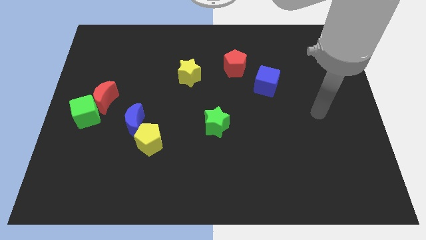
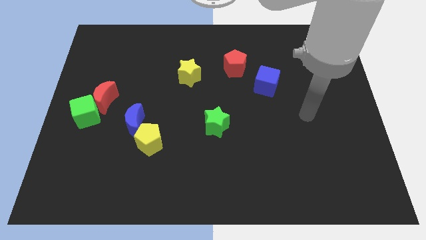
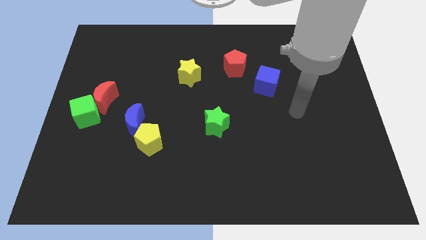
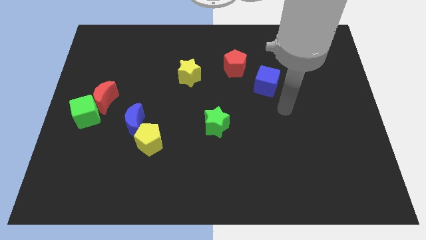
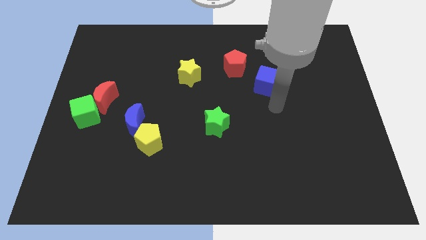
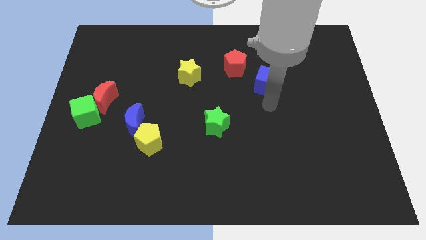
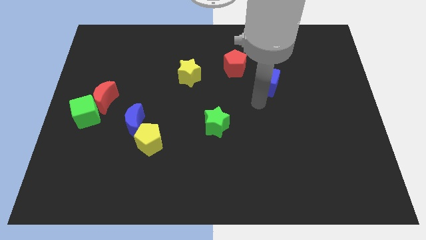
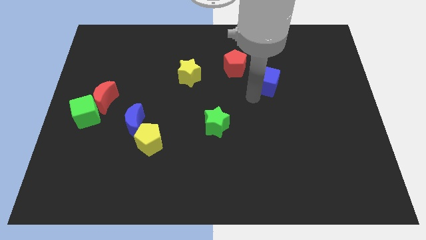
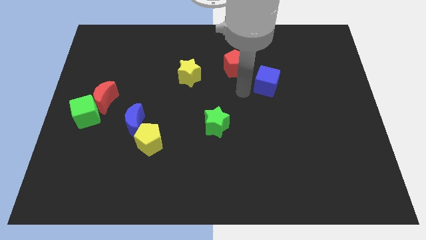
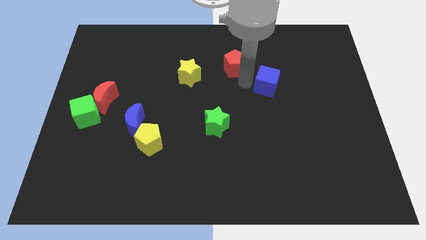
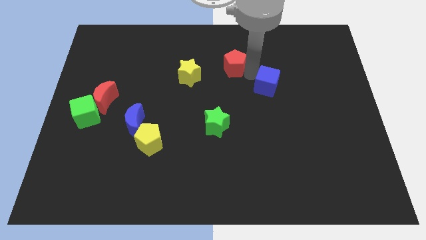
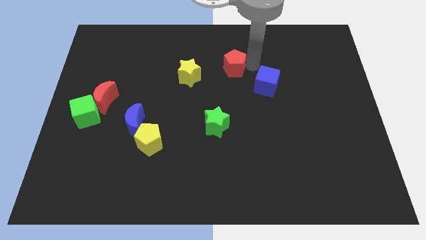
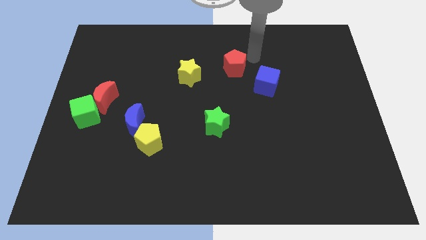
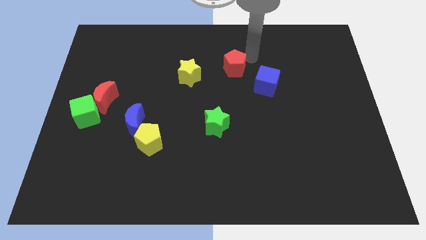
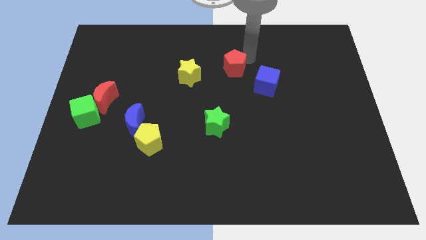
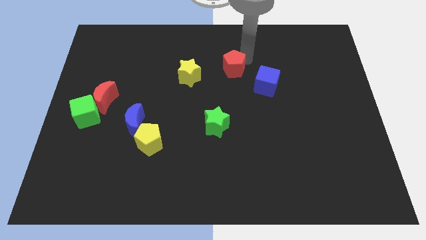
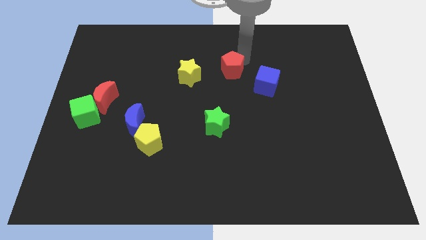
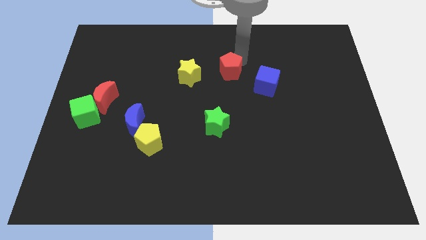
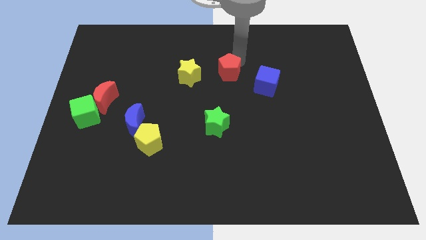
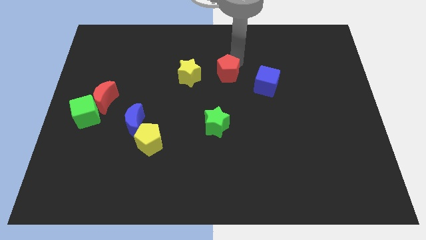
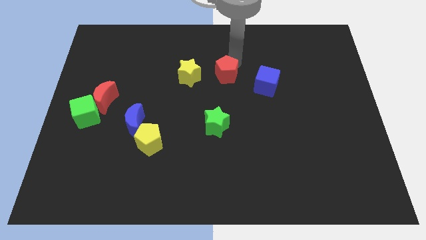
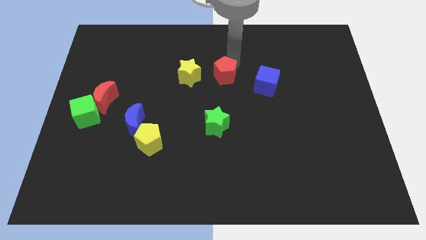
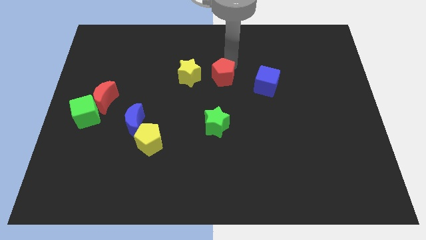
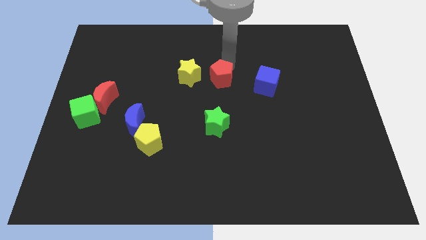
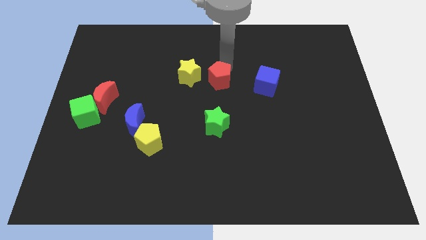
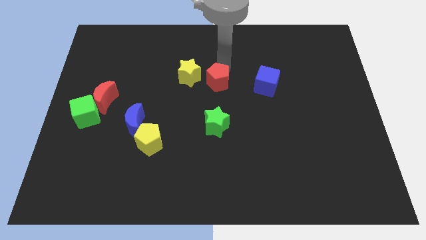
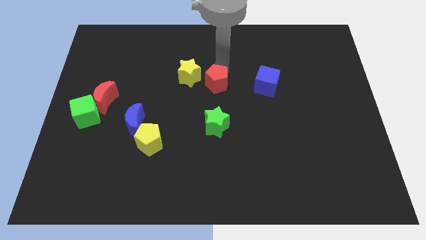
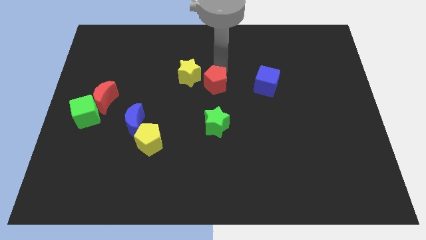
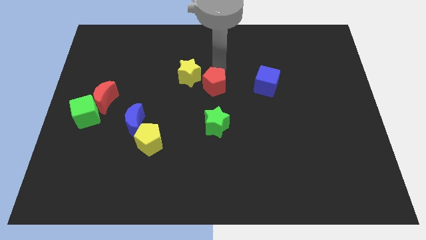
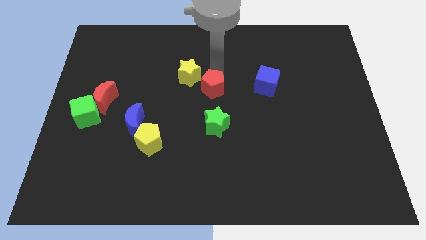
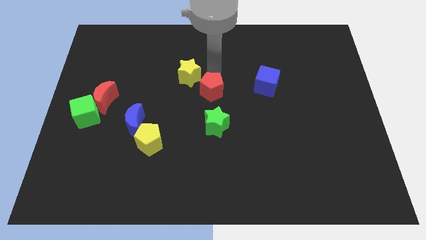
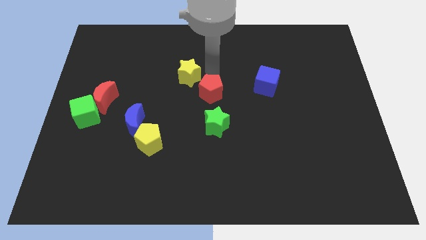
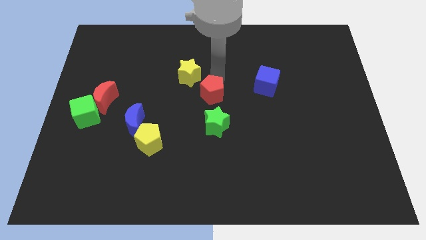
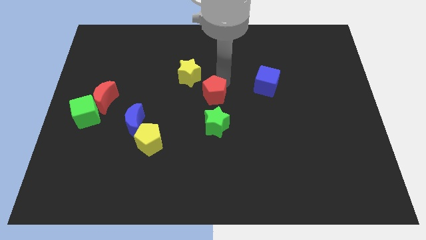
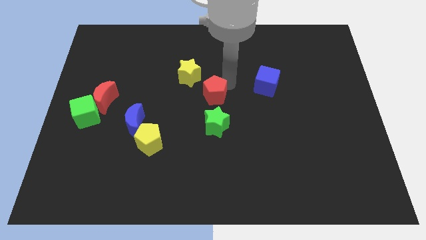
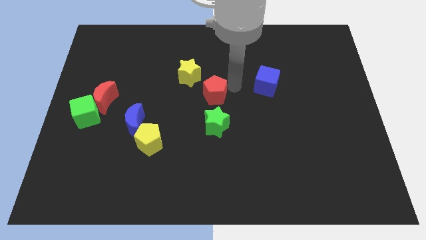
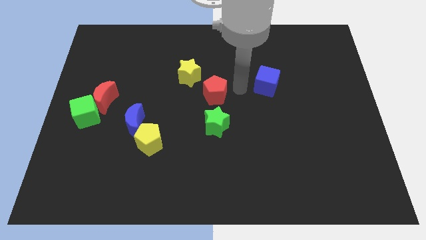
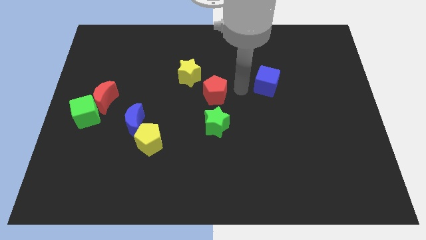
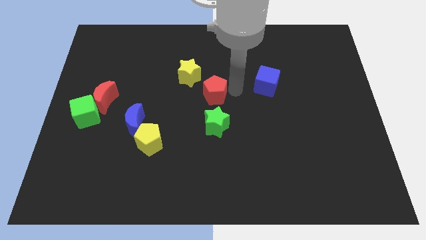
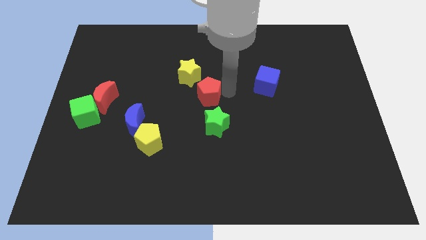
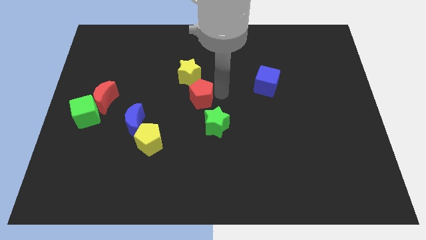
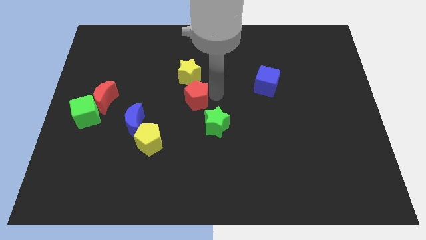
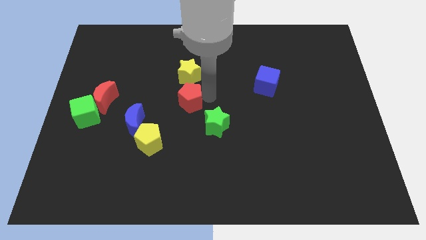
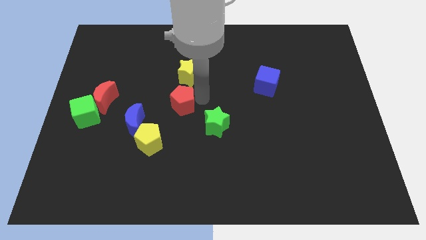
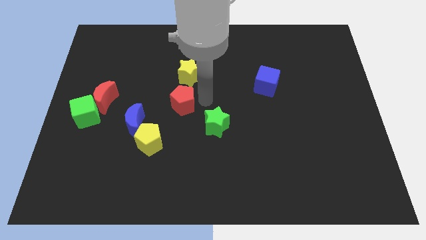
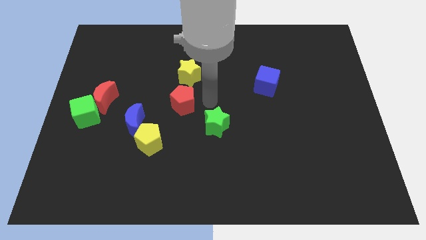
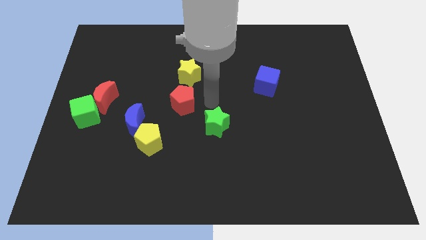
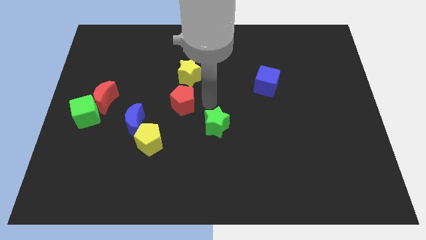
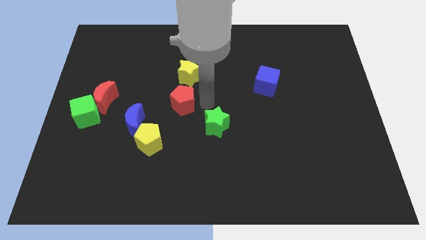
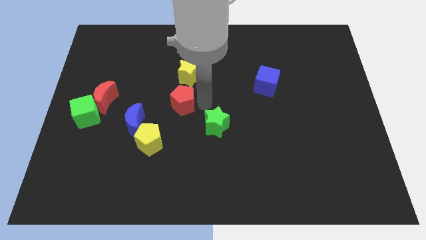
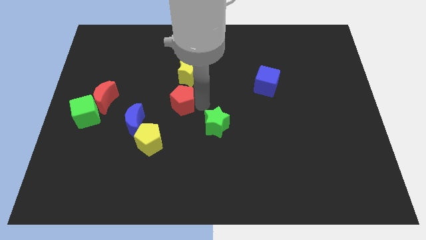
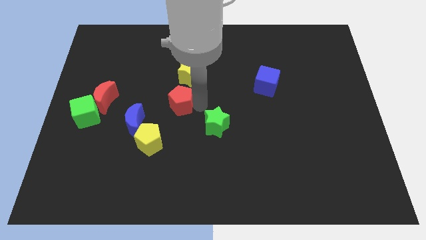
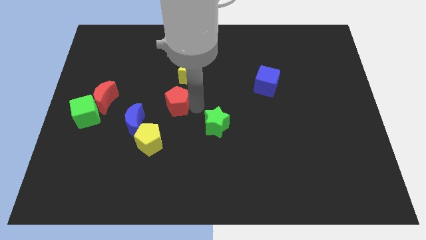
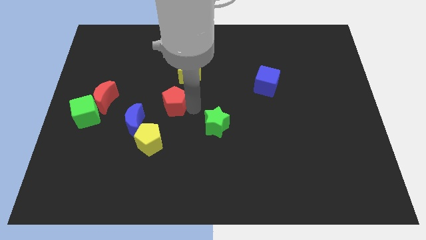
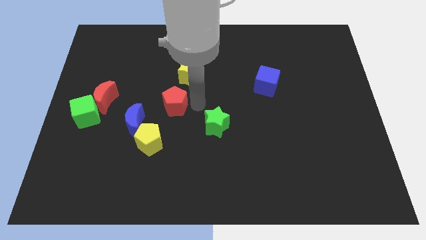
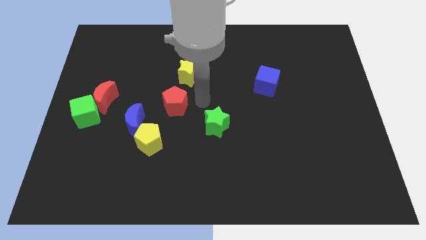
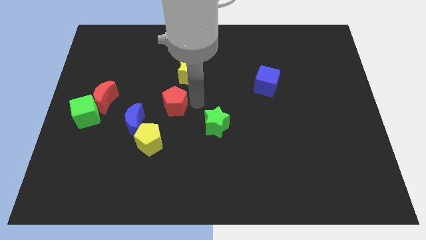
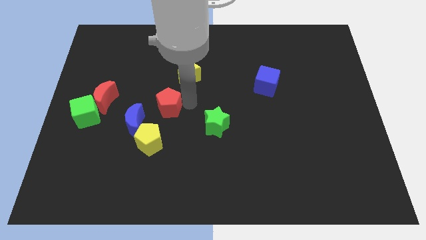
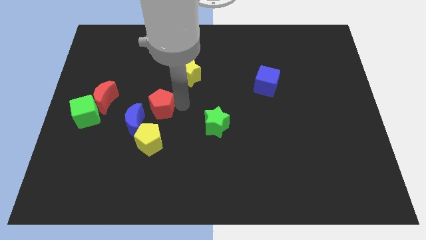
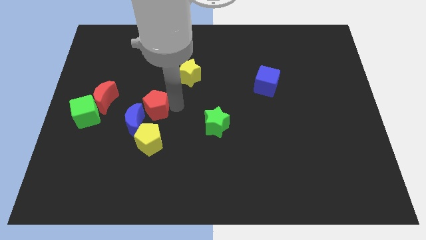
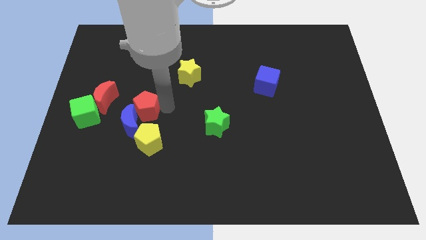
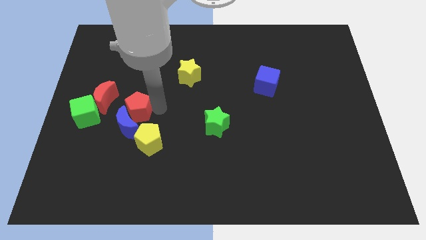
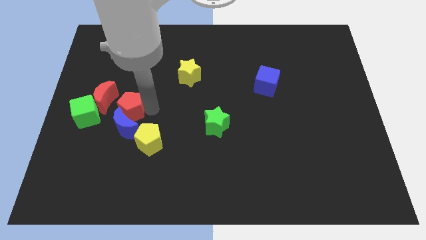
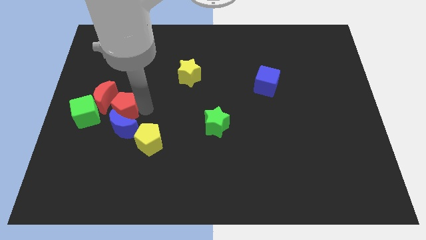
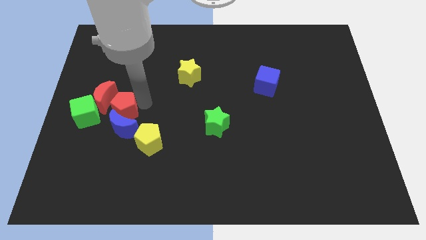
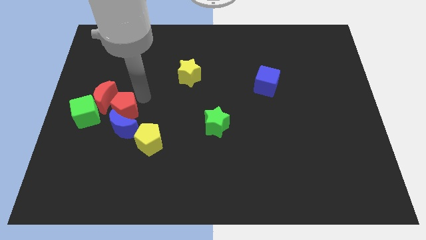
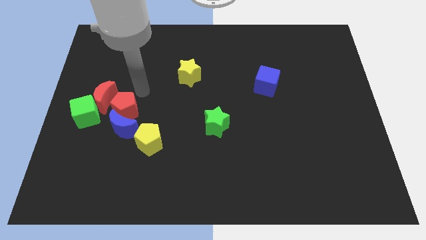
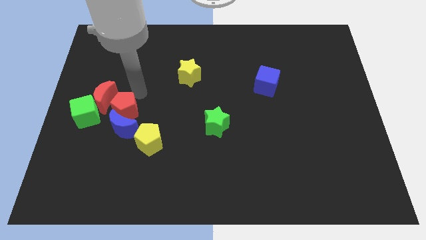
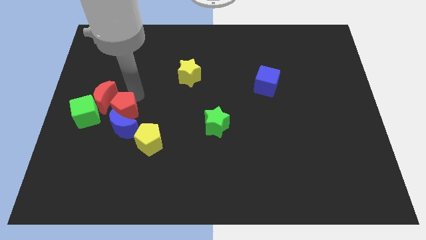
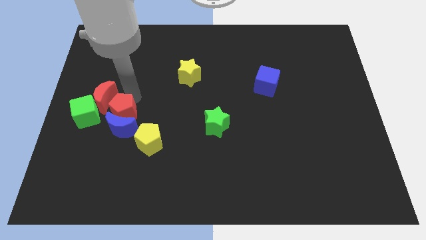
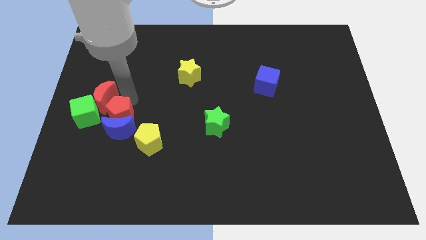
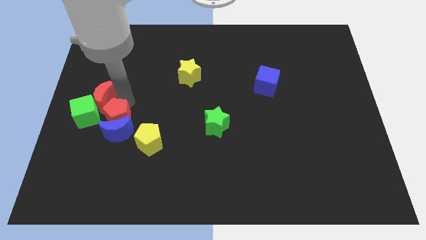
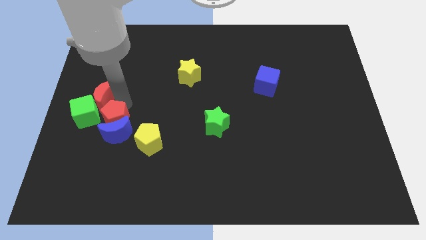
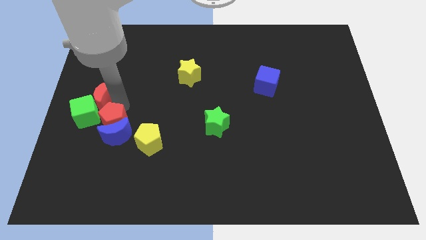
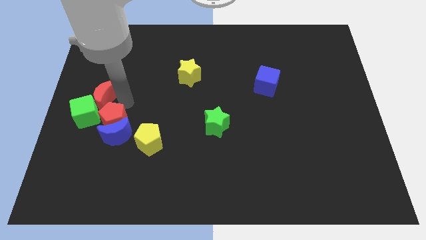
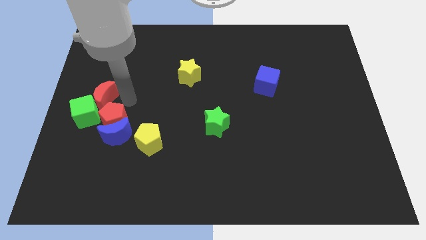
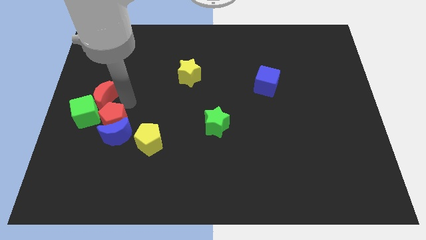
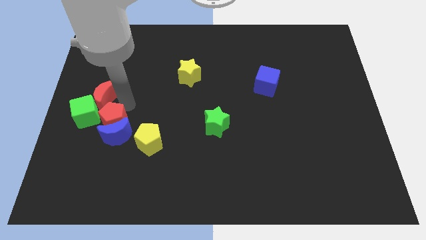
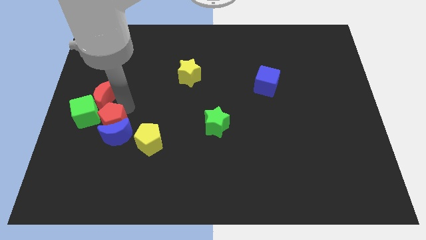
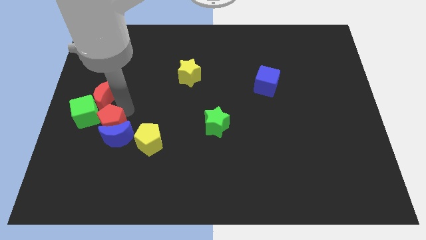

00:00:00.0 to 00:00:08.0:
slide the red pentagon left of the yellow pentagon
